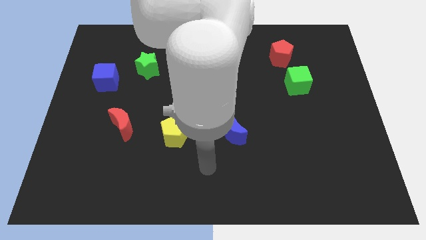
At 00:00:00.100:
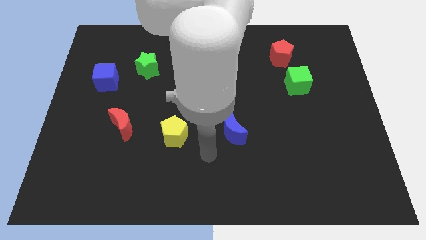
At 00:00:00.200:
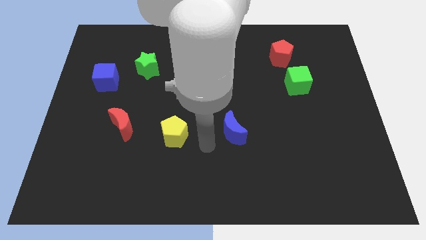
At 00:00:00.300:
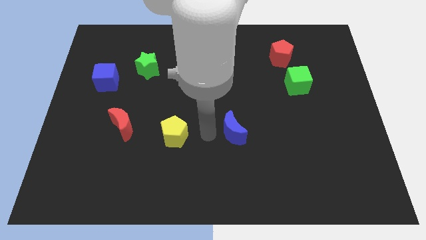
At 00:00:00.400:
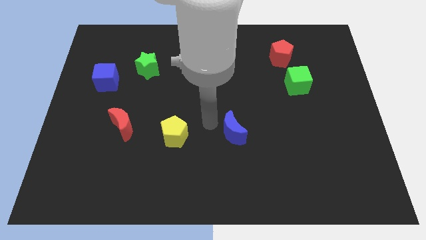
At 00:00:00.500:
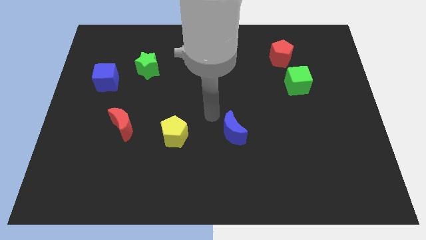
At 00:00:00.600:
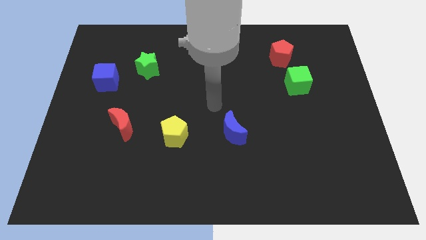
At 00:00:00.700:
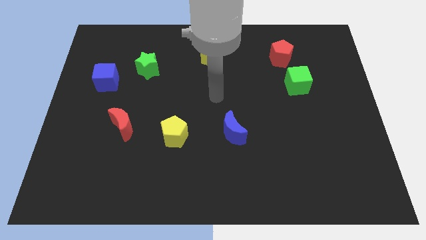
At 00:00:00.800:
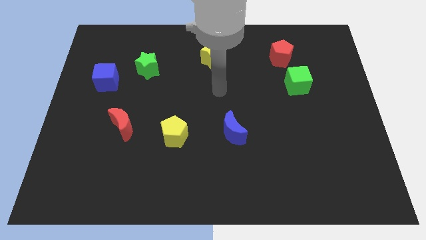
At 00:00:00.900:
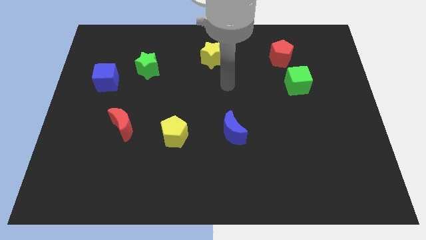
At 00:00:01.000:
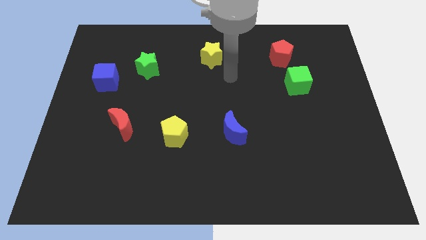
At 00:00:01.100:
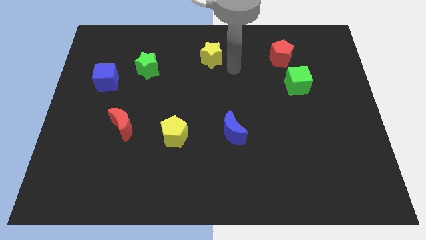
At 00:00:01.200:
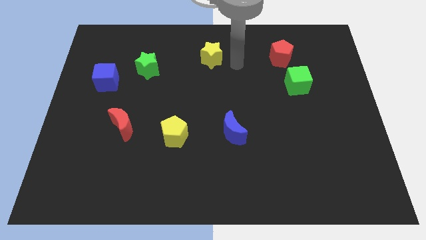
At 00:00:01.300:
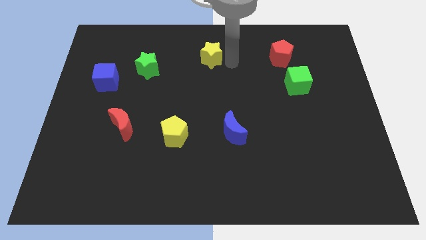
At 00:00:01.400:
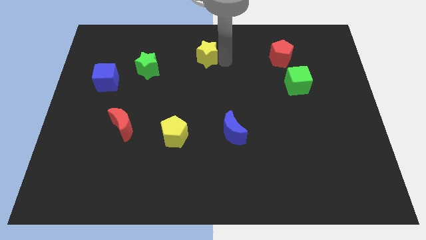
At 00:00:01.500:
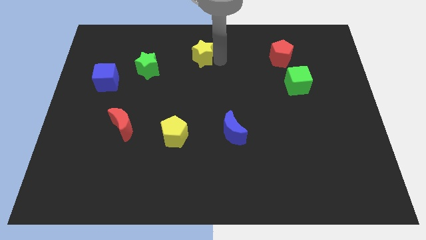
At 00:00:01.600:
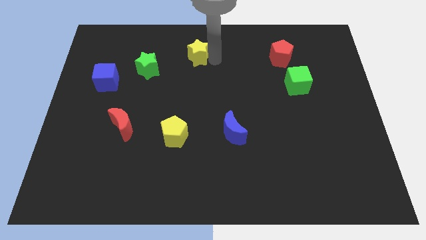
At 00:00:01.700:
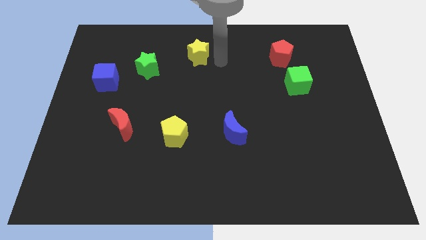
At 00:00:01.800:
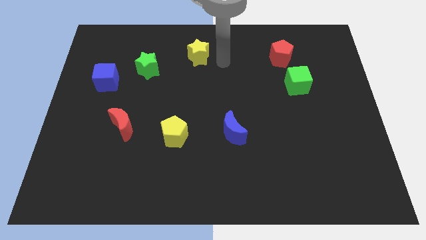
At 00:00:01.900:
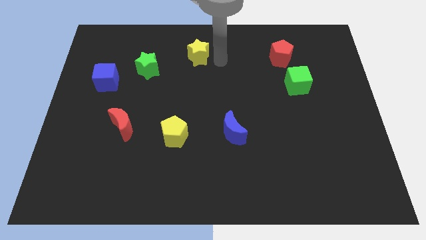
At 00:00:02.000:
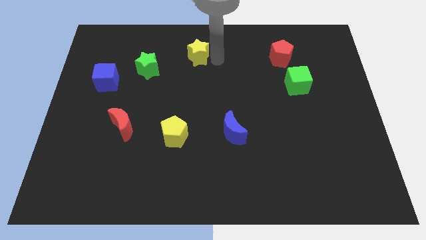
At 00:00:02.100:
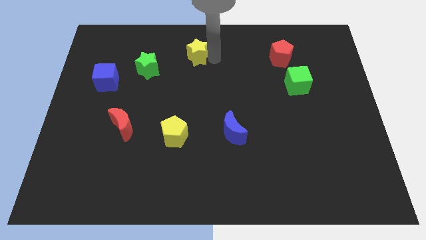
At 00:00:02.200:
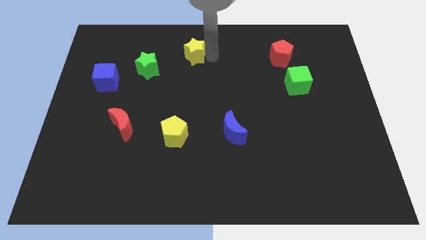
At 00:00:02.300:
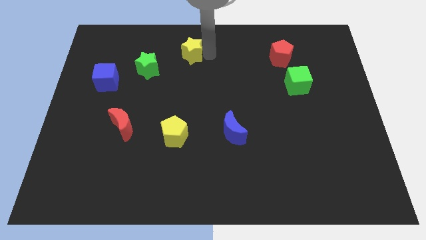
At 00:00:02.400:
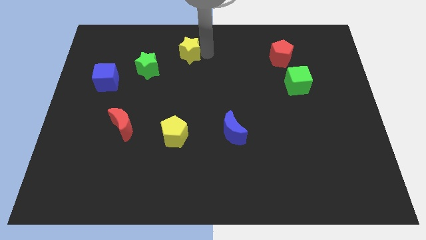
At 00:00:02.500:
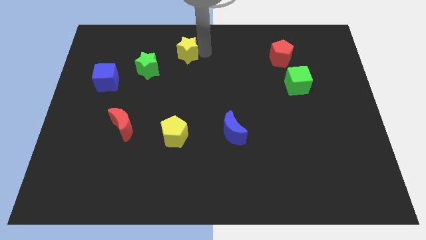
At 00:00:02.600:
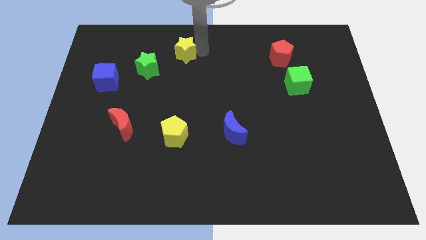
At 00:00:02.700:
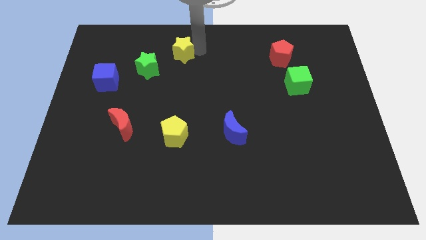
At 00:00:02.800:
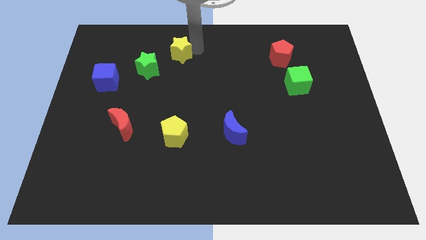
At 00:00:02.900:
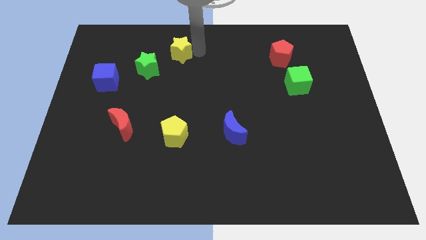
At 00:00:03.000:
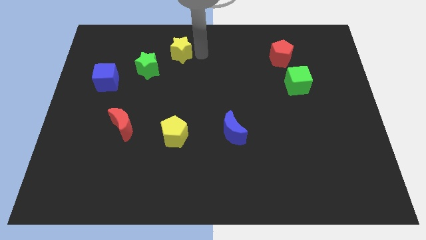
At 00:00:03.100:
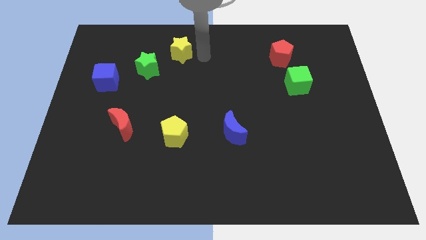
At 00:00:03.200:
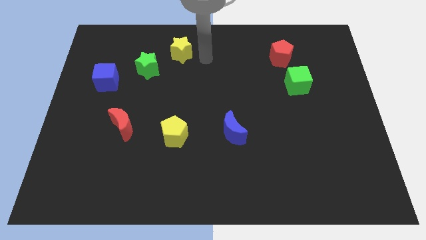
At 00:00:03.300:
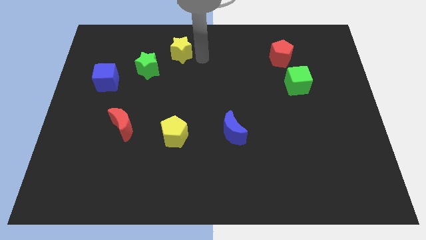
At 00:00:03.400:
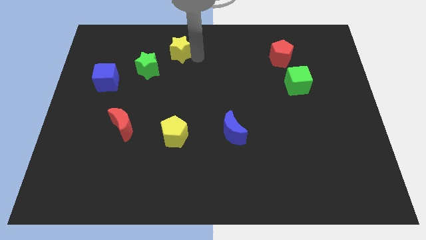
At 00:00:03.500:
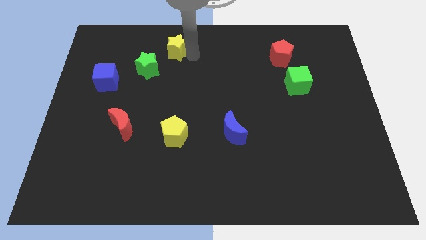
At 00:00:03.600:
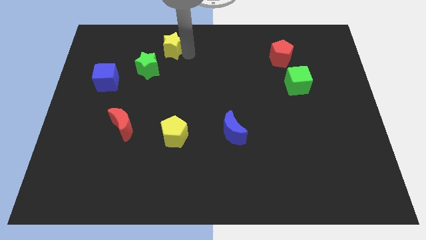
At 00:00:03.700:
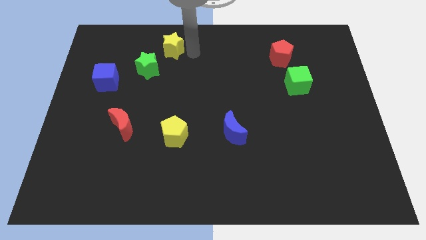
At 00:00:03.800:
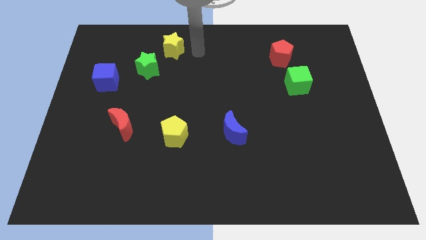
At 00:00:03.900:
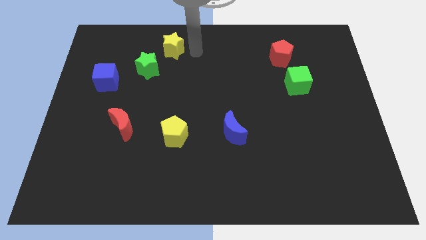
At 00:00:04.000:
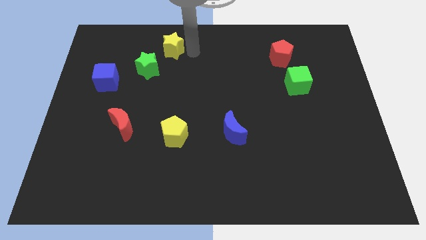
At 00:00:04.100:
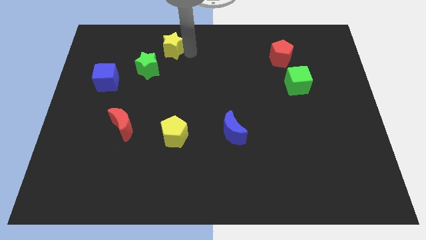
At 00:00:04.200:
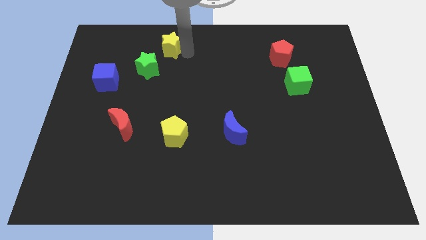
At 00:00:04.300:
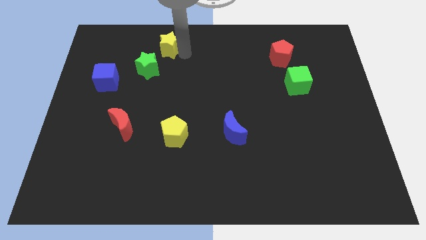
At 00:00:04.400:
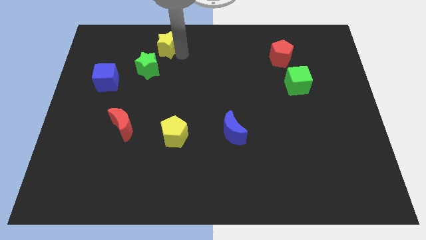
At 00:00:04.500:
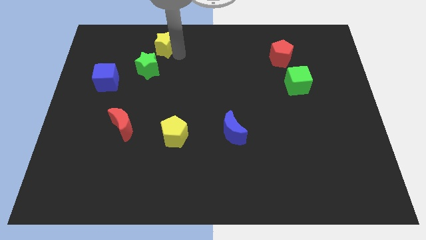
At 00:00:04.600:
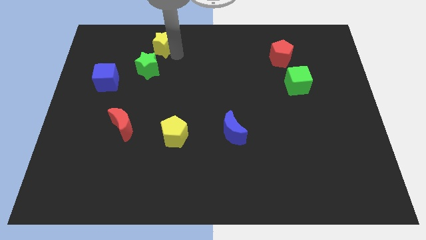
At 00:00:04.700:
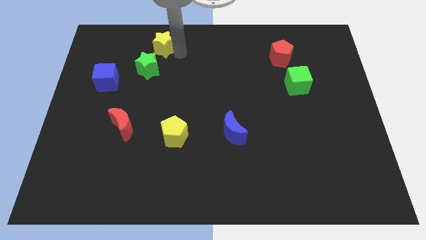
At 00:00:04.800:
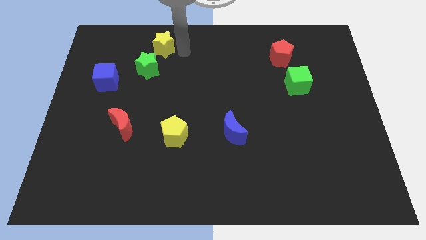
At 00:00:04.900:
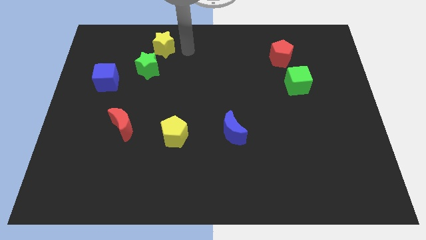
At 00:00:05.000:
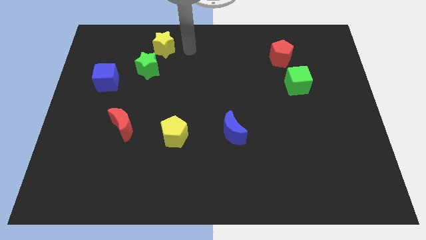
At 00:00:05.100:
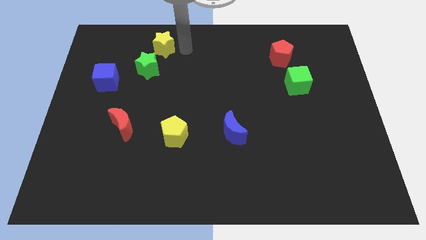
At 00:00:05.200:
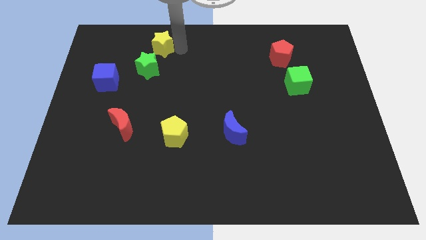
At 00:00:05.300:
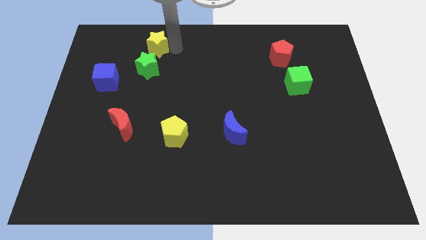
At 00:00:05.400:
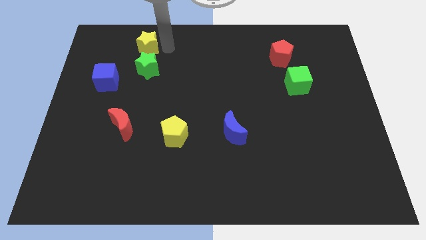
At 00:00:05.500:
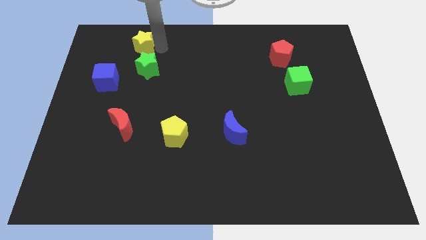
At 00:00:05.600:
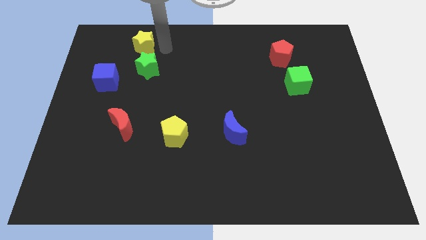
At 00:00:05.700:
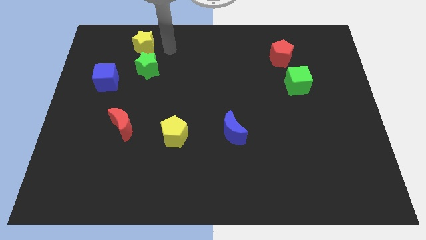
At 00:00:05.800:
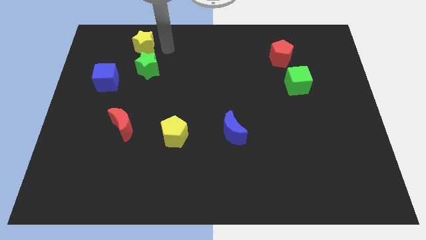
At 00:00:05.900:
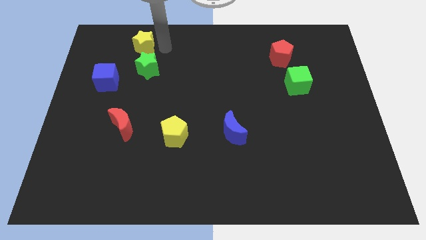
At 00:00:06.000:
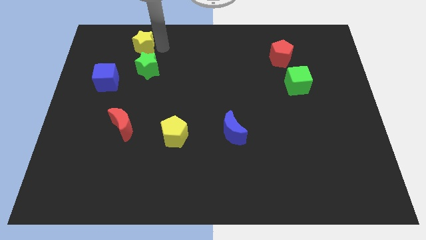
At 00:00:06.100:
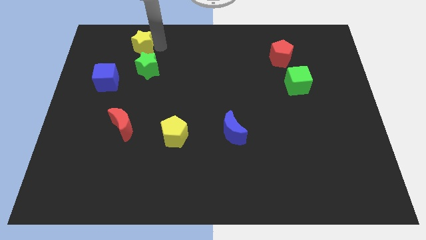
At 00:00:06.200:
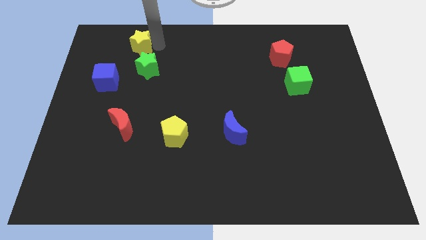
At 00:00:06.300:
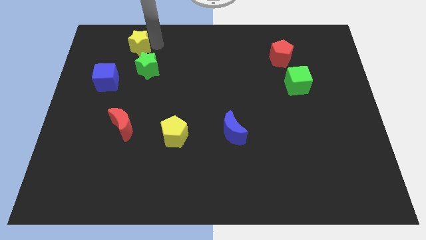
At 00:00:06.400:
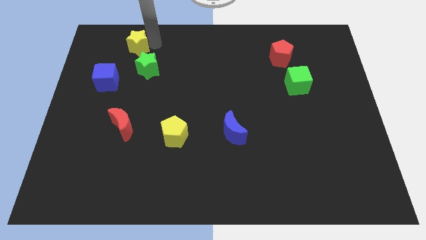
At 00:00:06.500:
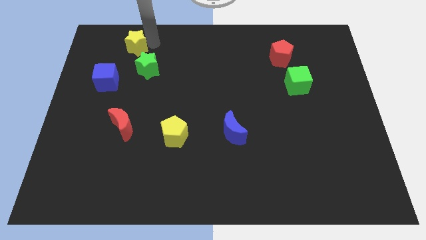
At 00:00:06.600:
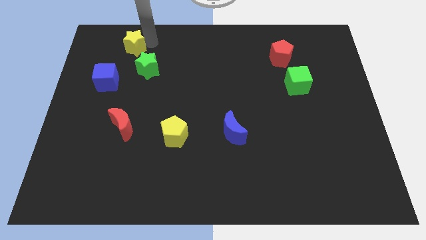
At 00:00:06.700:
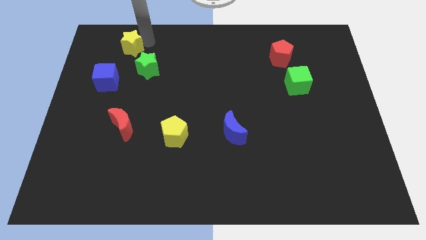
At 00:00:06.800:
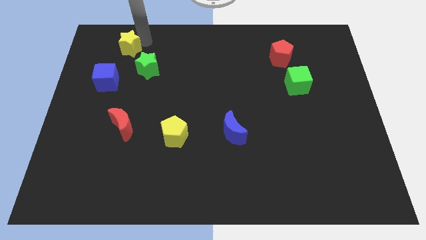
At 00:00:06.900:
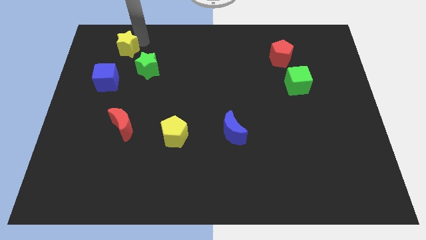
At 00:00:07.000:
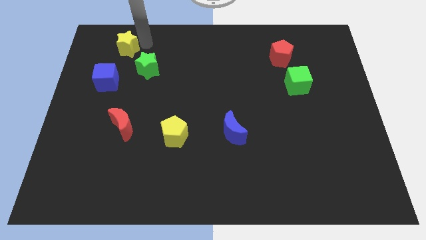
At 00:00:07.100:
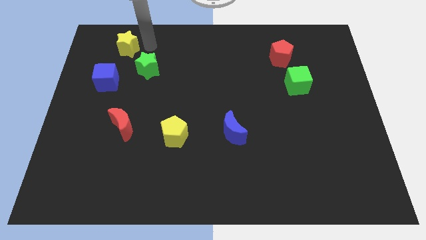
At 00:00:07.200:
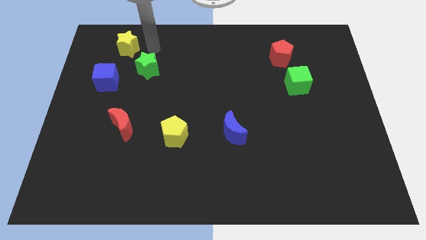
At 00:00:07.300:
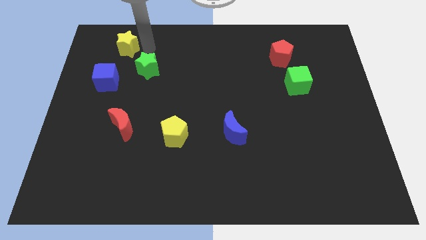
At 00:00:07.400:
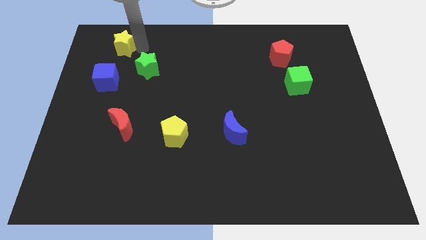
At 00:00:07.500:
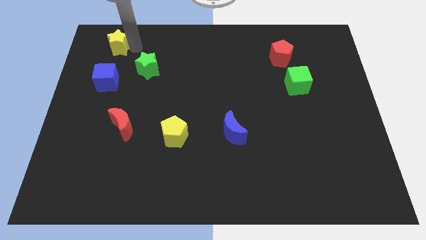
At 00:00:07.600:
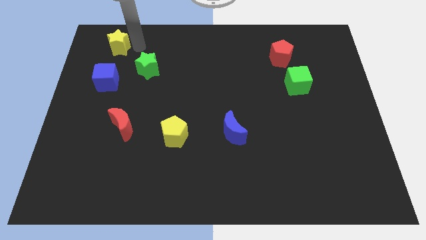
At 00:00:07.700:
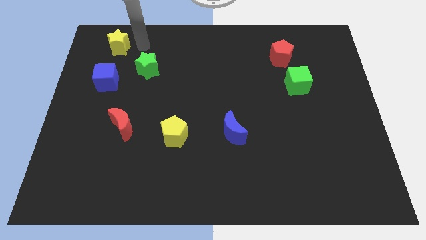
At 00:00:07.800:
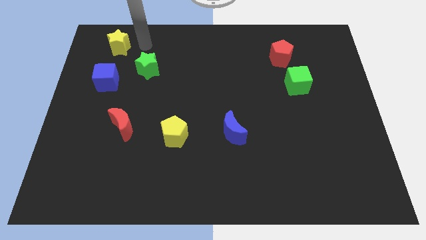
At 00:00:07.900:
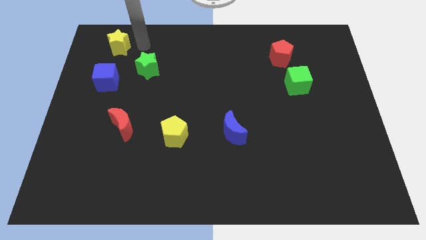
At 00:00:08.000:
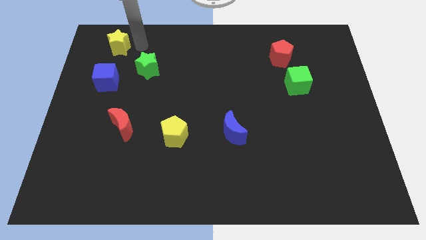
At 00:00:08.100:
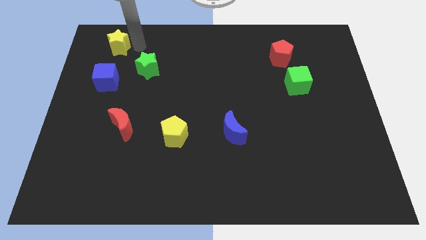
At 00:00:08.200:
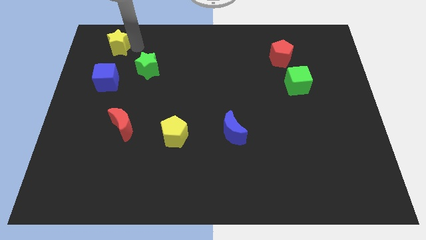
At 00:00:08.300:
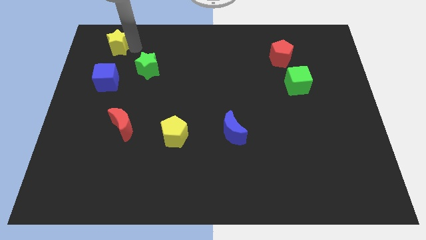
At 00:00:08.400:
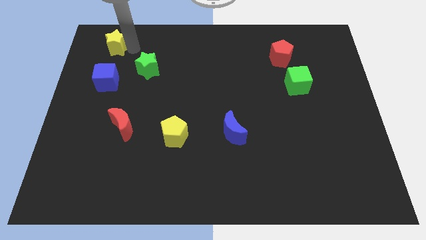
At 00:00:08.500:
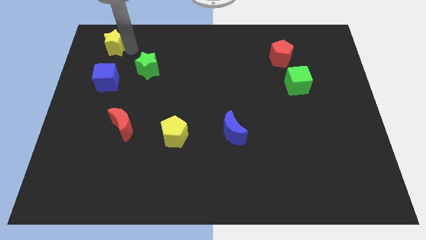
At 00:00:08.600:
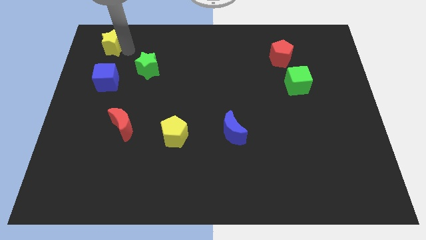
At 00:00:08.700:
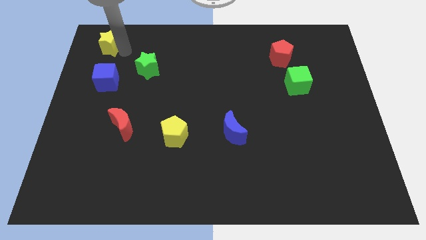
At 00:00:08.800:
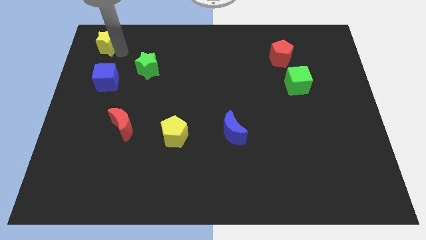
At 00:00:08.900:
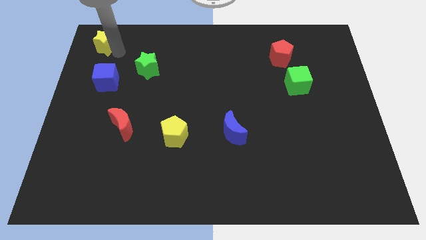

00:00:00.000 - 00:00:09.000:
push the yellow star to the top left
